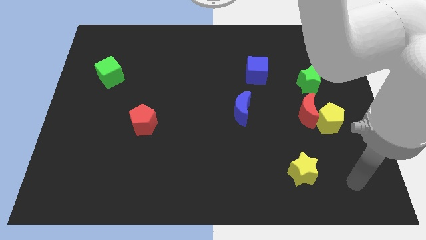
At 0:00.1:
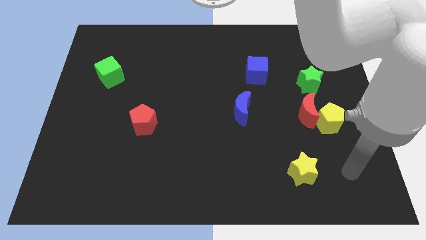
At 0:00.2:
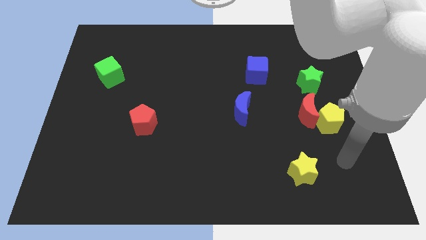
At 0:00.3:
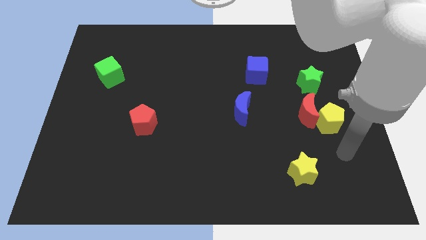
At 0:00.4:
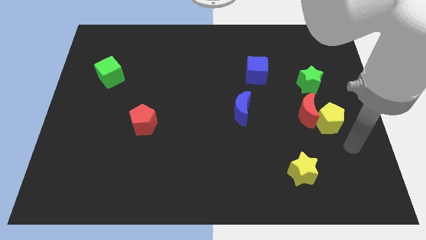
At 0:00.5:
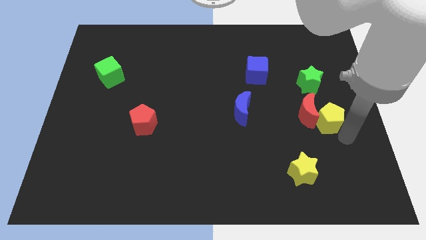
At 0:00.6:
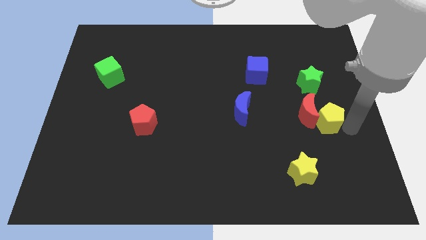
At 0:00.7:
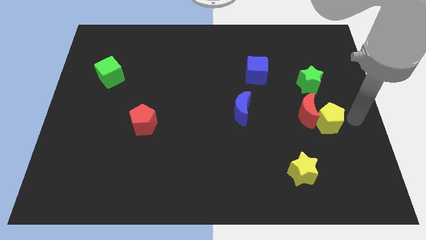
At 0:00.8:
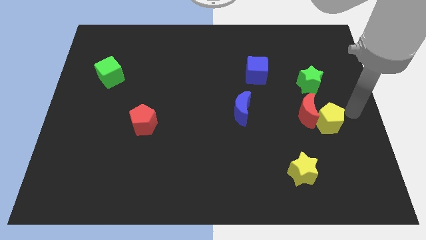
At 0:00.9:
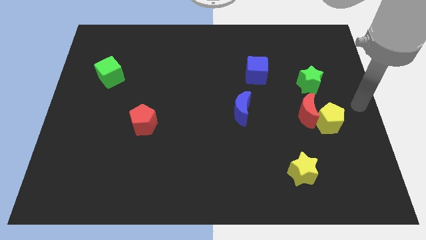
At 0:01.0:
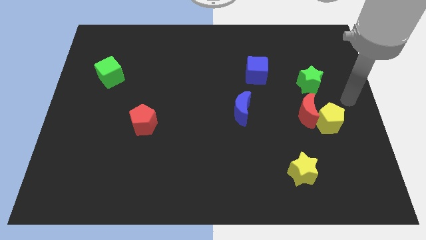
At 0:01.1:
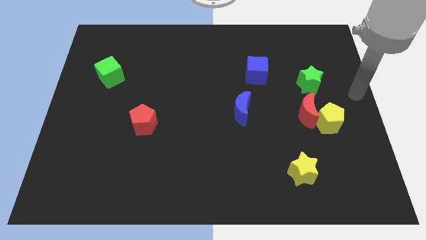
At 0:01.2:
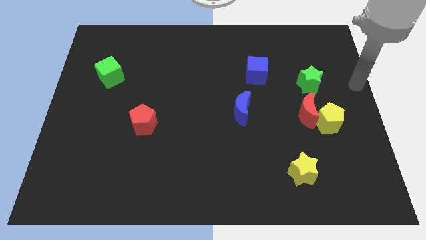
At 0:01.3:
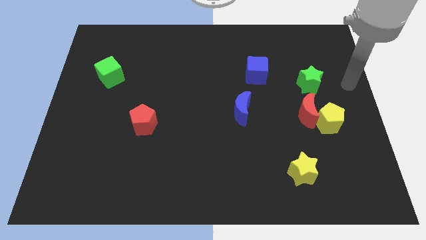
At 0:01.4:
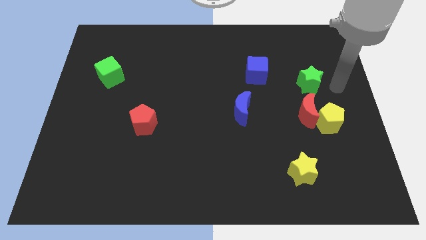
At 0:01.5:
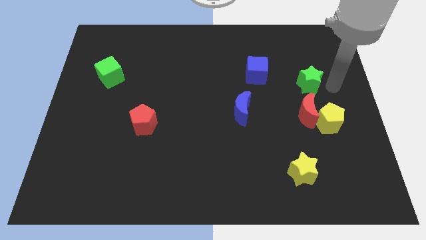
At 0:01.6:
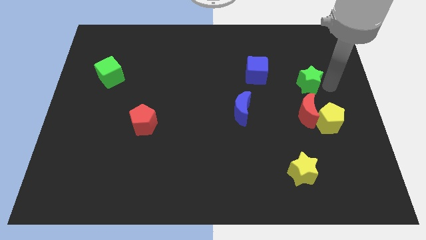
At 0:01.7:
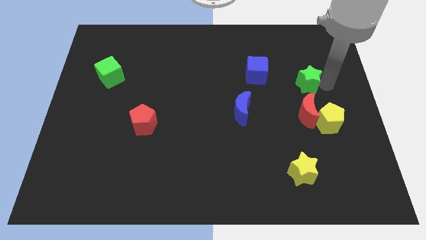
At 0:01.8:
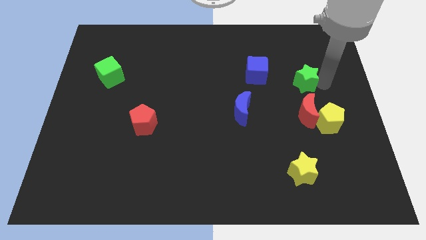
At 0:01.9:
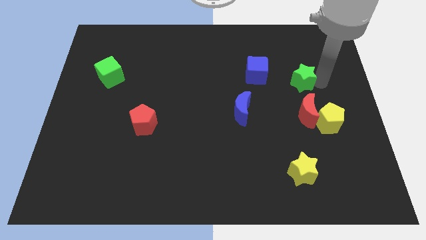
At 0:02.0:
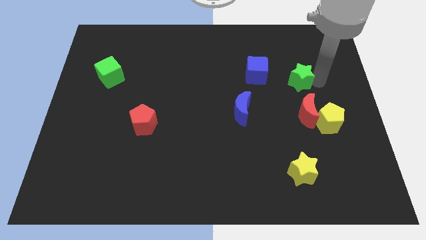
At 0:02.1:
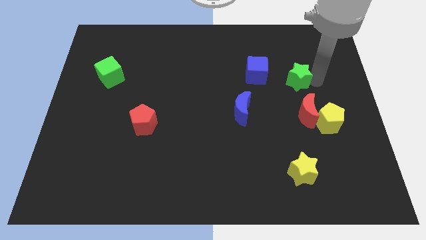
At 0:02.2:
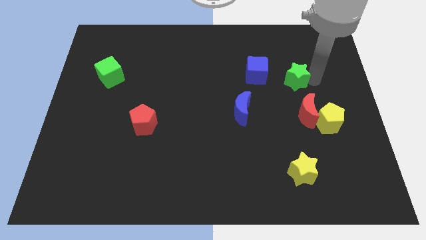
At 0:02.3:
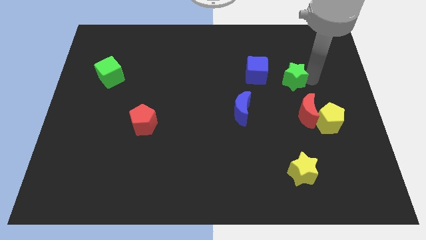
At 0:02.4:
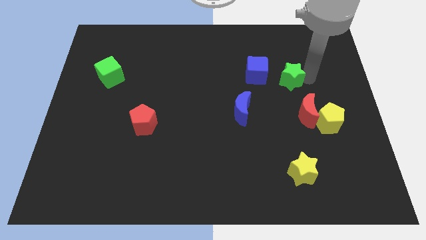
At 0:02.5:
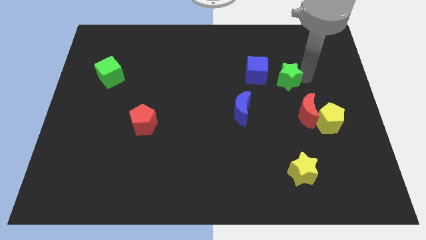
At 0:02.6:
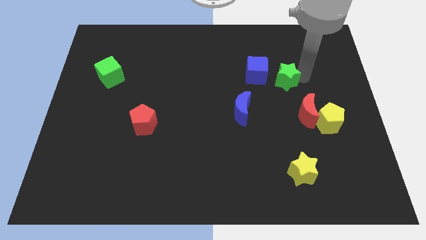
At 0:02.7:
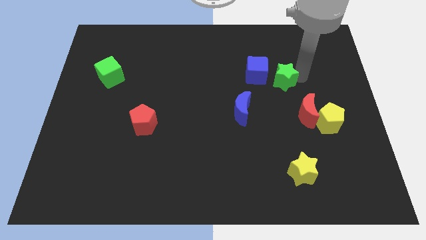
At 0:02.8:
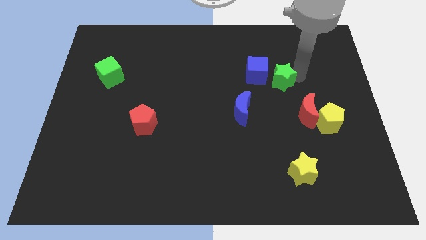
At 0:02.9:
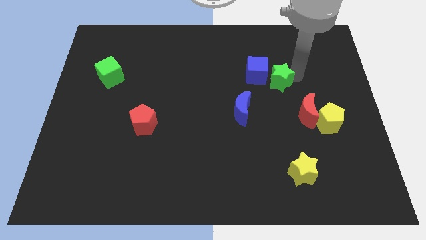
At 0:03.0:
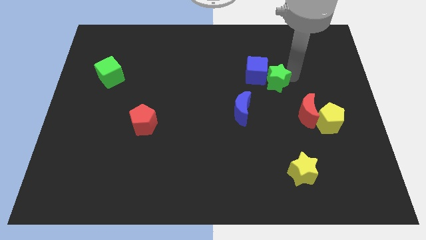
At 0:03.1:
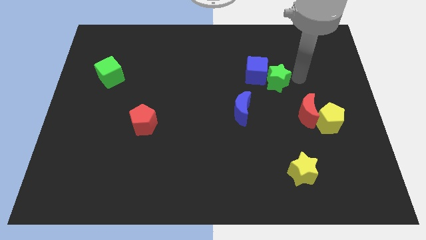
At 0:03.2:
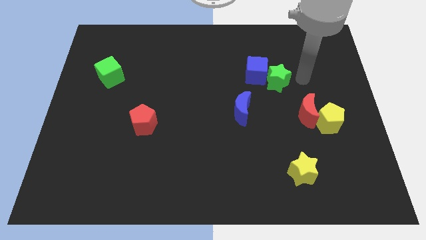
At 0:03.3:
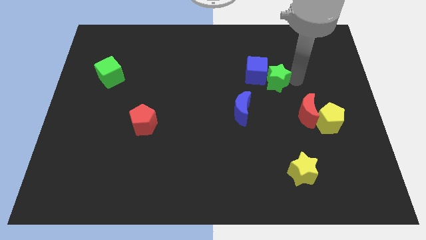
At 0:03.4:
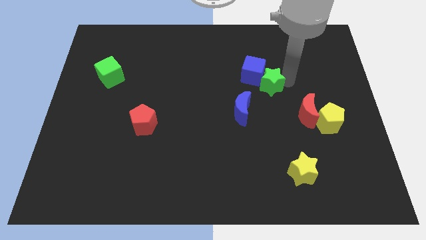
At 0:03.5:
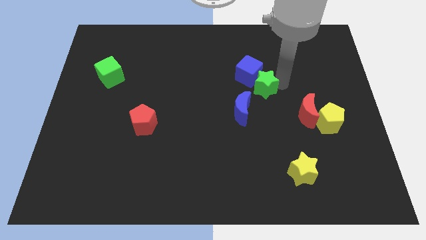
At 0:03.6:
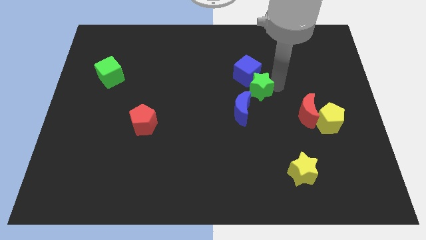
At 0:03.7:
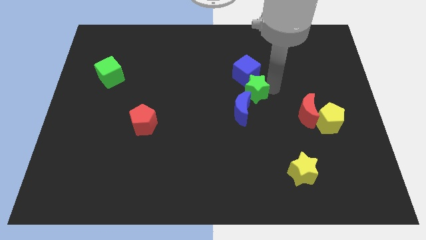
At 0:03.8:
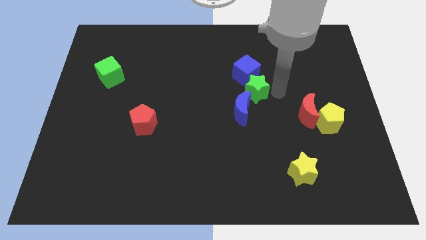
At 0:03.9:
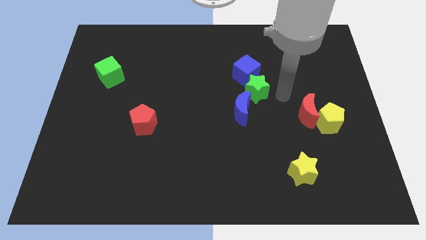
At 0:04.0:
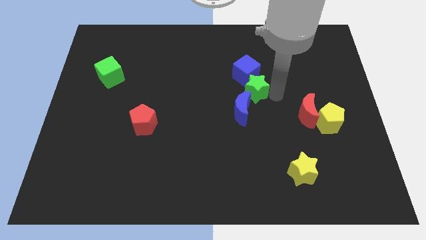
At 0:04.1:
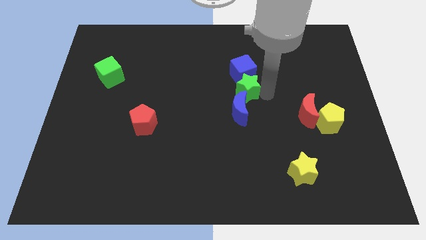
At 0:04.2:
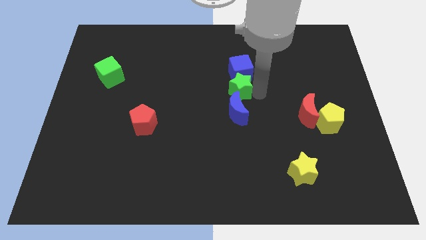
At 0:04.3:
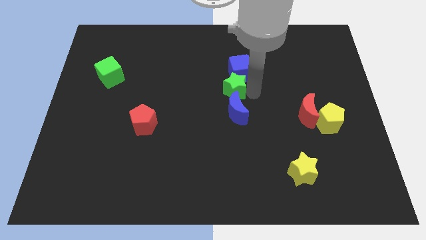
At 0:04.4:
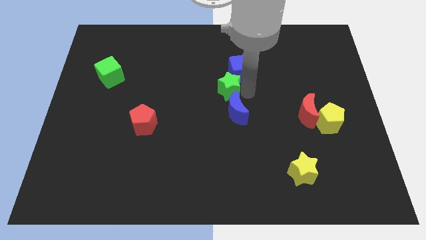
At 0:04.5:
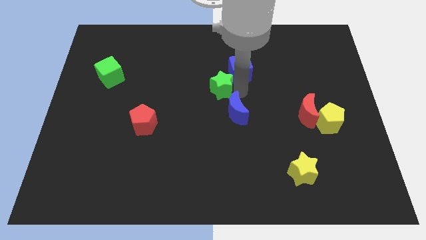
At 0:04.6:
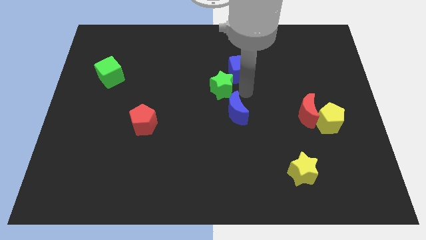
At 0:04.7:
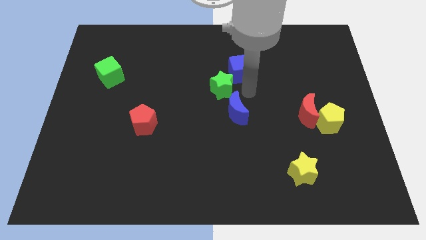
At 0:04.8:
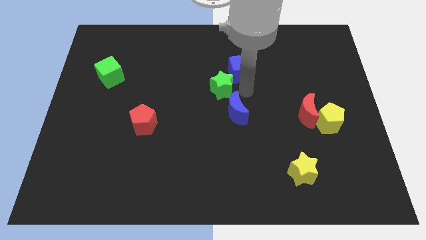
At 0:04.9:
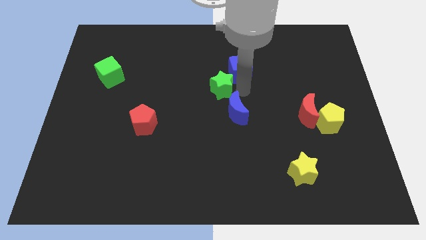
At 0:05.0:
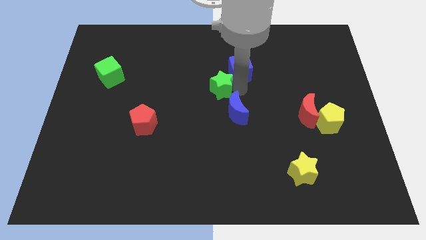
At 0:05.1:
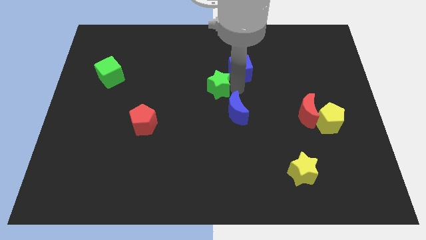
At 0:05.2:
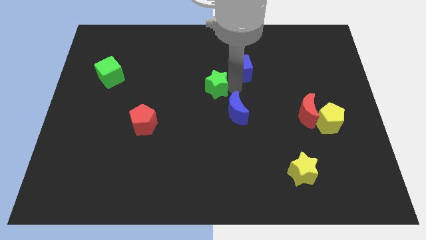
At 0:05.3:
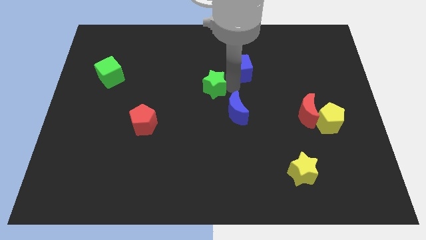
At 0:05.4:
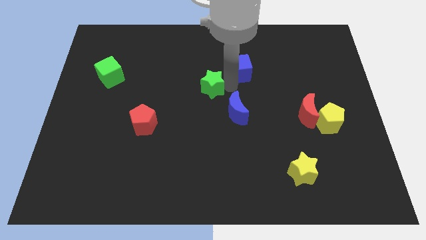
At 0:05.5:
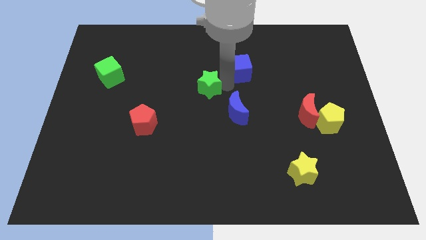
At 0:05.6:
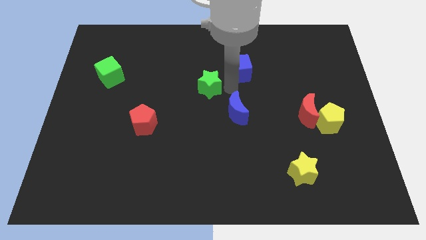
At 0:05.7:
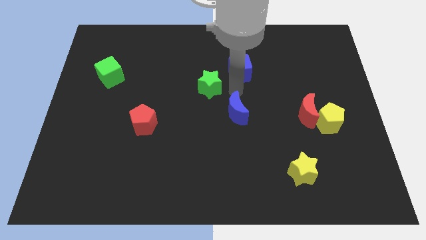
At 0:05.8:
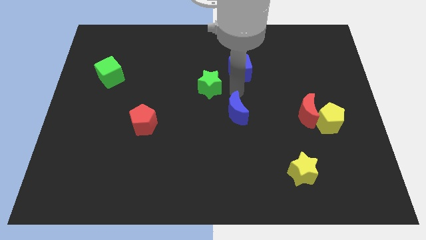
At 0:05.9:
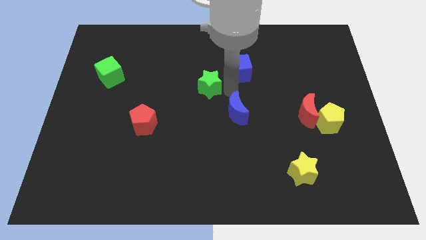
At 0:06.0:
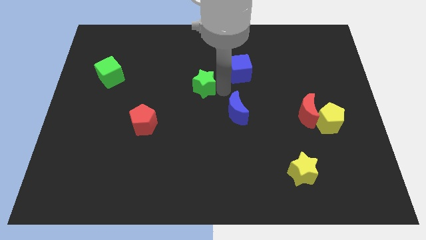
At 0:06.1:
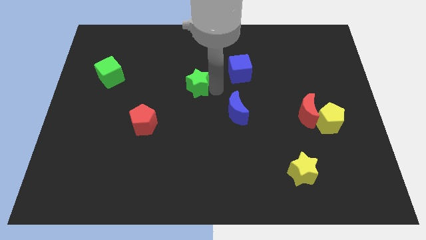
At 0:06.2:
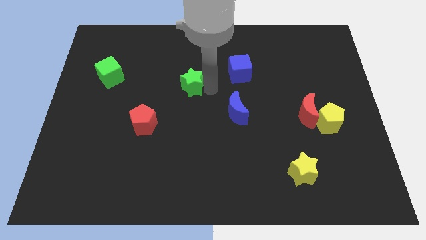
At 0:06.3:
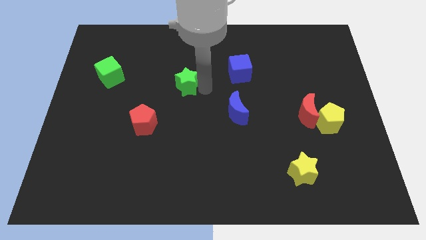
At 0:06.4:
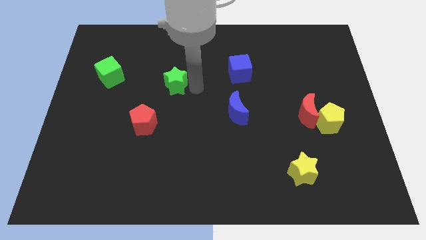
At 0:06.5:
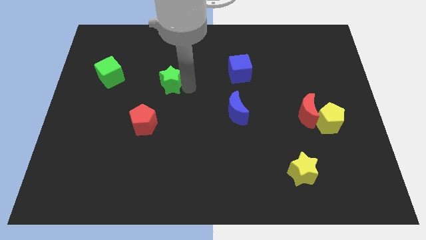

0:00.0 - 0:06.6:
put the green star just right of the green cube
